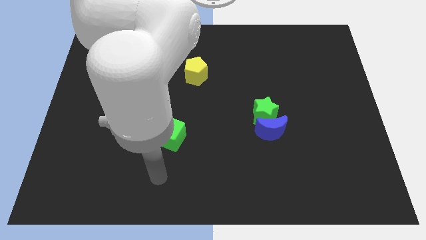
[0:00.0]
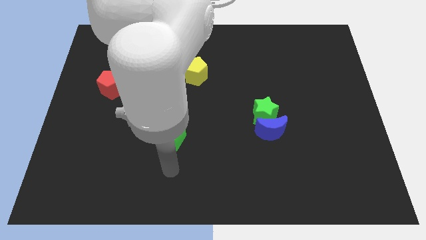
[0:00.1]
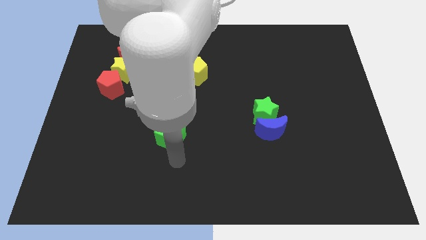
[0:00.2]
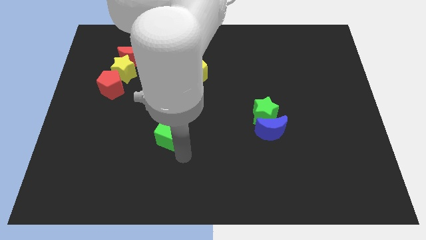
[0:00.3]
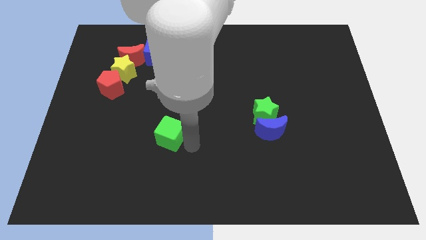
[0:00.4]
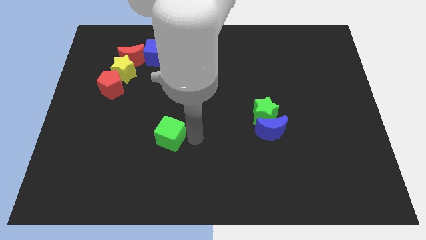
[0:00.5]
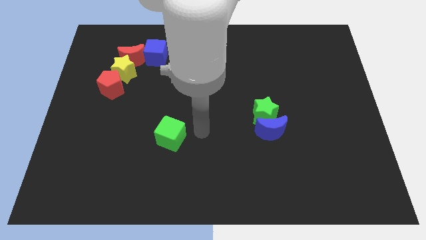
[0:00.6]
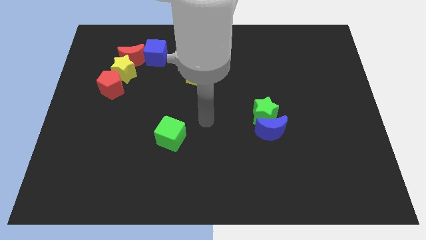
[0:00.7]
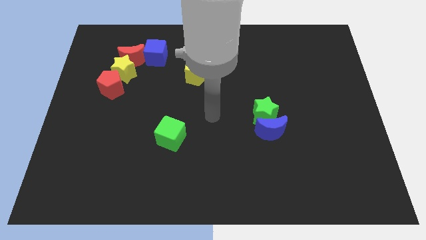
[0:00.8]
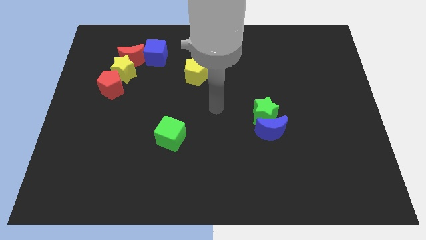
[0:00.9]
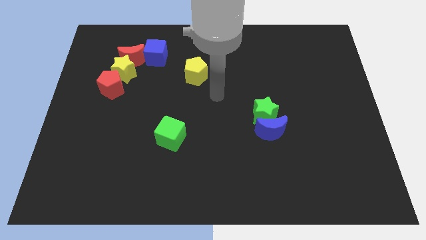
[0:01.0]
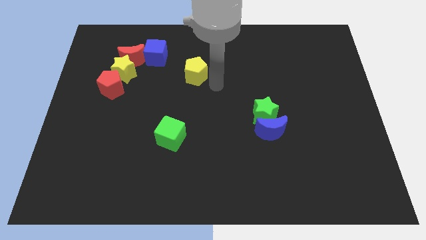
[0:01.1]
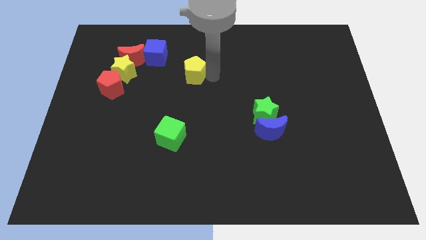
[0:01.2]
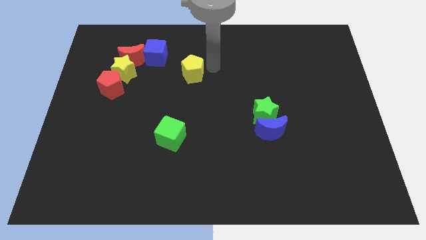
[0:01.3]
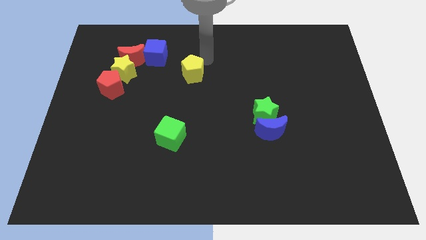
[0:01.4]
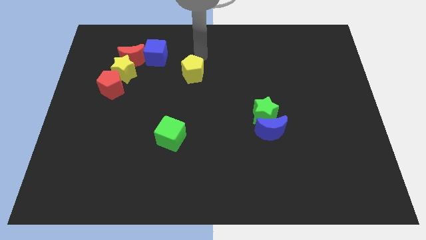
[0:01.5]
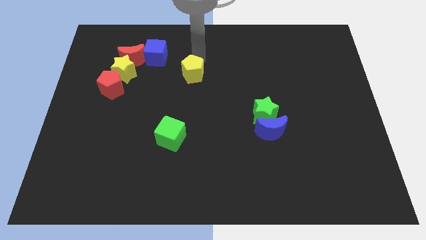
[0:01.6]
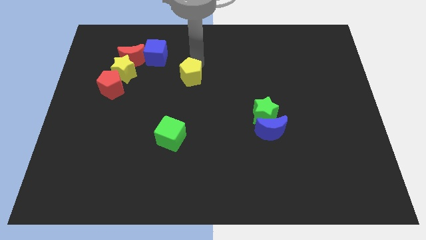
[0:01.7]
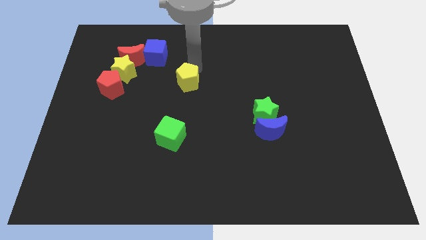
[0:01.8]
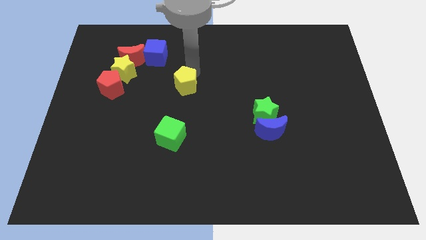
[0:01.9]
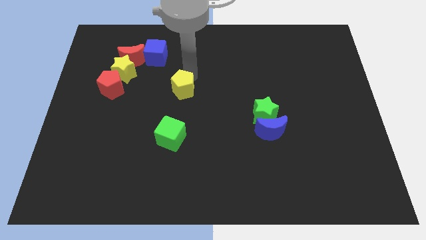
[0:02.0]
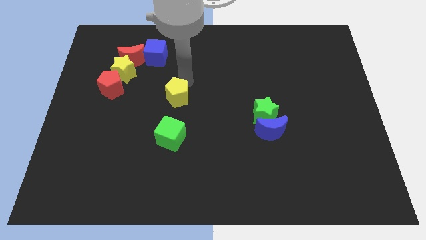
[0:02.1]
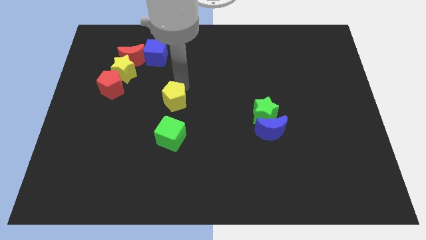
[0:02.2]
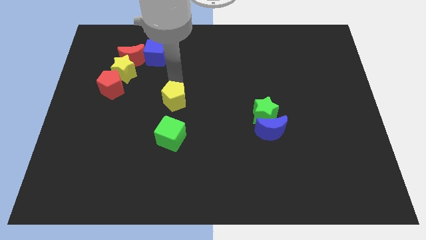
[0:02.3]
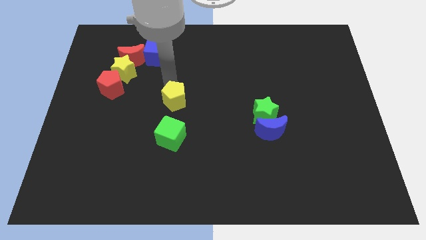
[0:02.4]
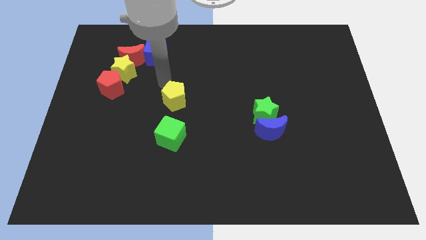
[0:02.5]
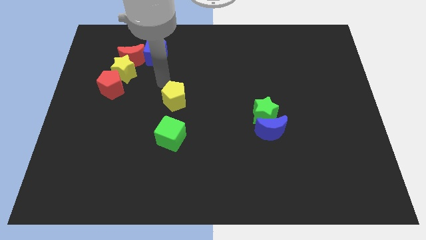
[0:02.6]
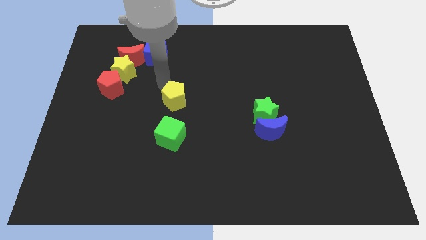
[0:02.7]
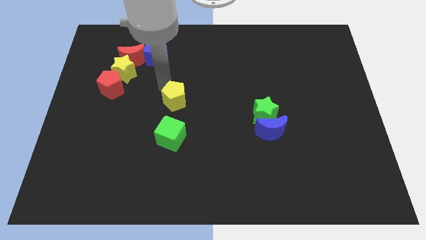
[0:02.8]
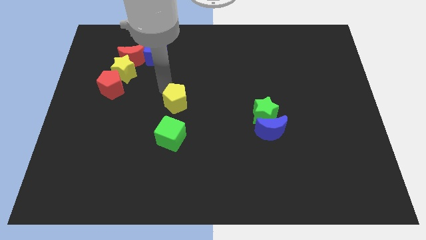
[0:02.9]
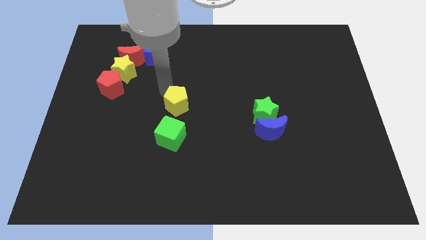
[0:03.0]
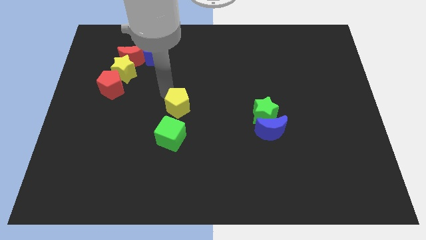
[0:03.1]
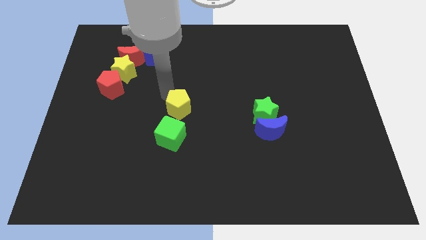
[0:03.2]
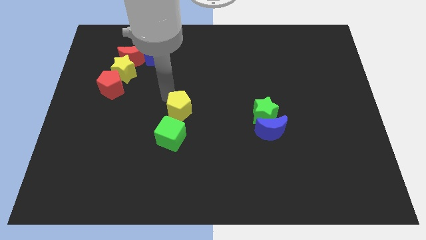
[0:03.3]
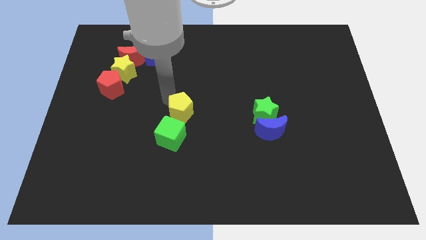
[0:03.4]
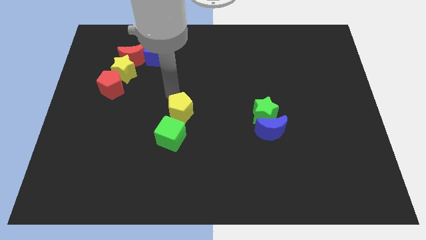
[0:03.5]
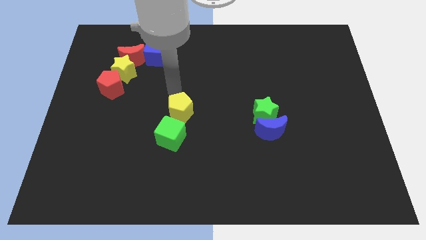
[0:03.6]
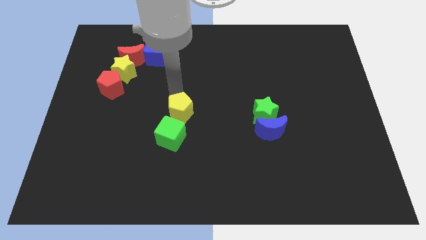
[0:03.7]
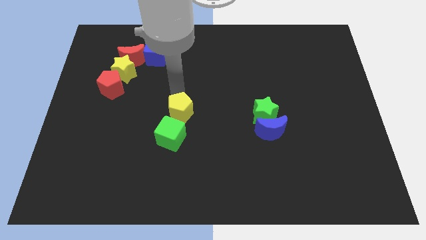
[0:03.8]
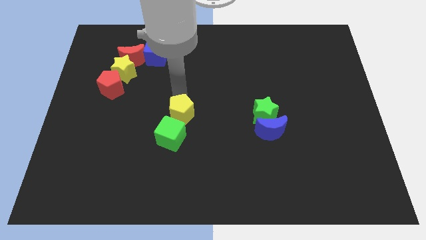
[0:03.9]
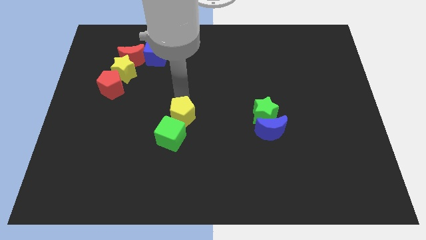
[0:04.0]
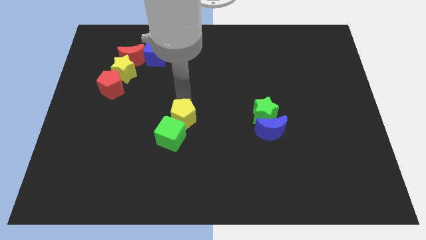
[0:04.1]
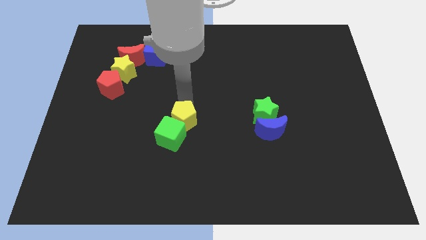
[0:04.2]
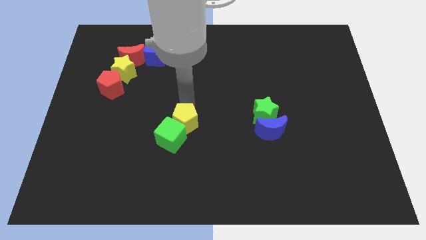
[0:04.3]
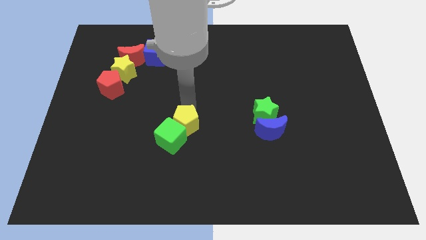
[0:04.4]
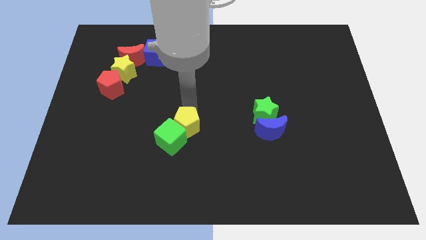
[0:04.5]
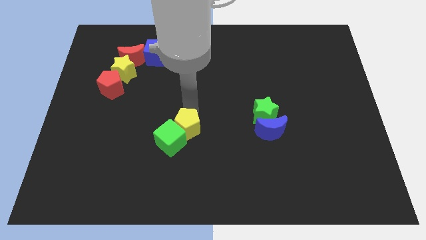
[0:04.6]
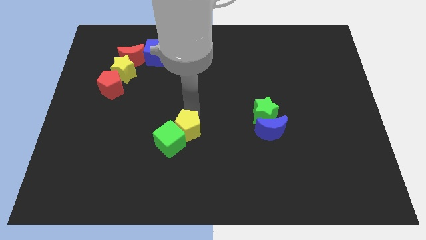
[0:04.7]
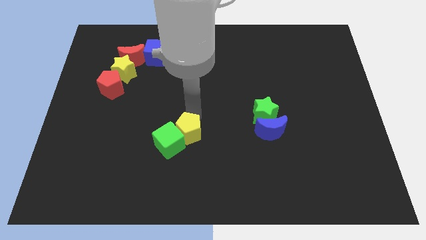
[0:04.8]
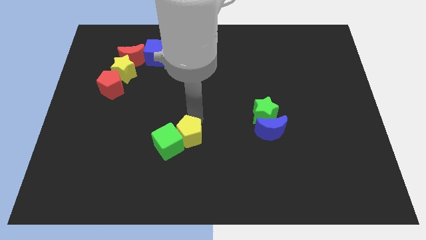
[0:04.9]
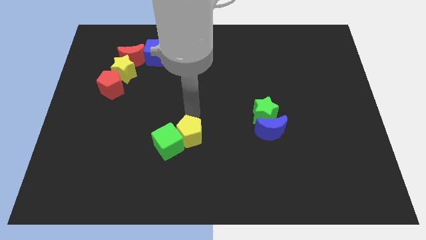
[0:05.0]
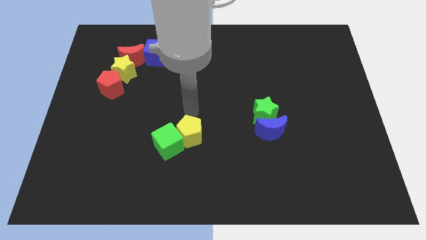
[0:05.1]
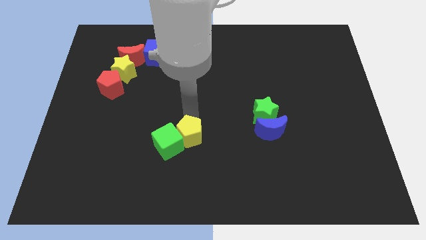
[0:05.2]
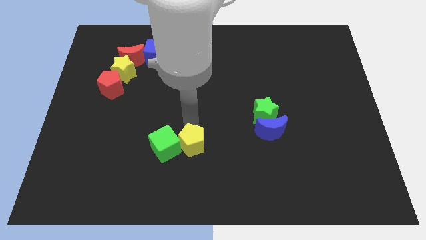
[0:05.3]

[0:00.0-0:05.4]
push the yellow pentagon to the bottom right of the green cube

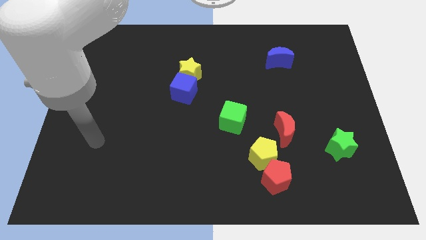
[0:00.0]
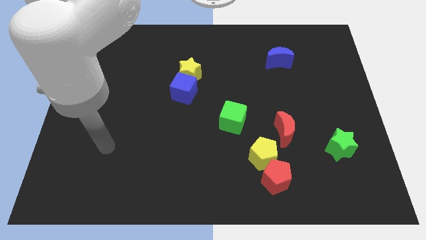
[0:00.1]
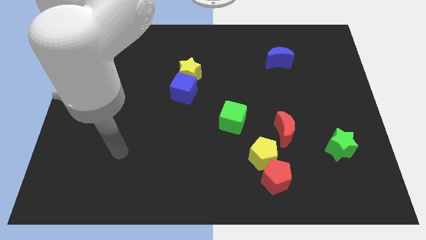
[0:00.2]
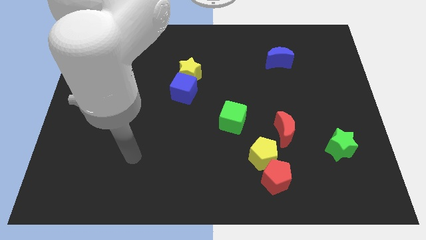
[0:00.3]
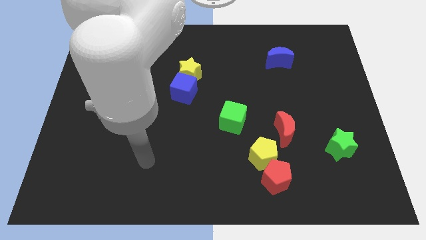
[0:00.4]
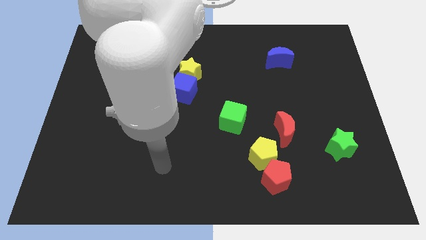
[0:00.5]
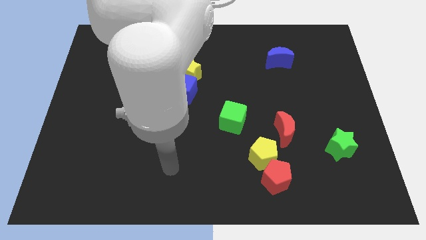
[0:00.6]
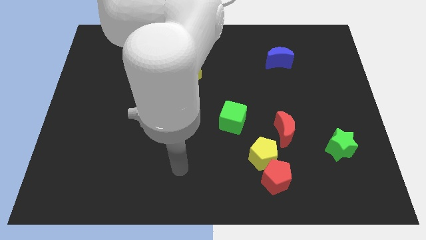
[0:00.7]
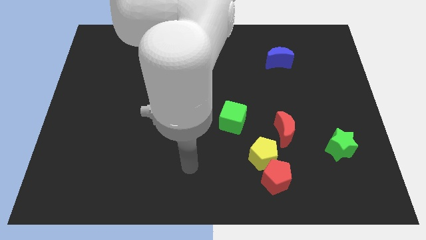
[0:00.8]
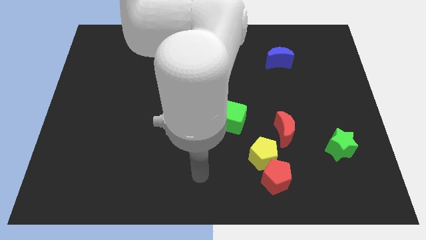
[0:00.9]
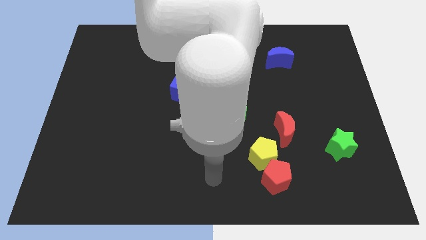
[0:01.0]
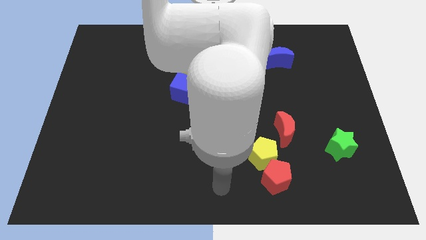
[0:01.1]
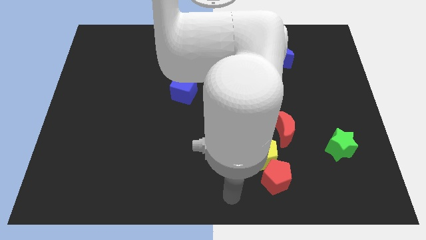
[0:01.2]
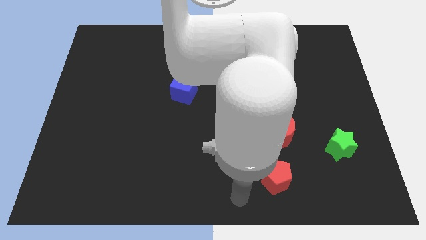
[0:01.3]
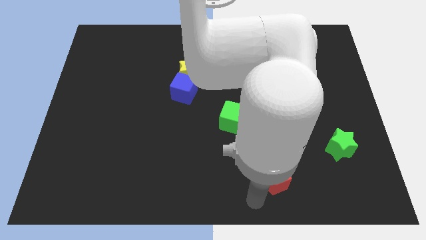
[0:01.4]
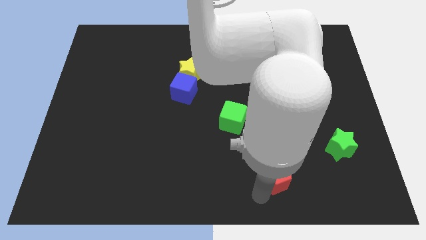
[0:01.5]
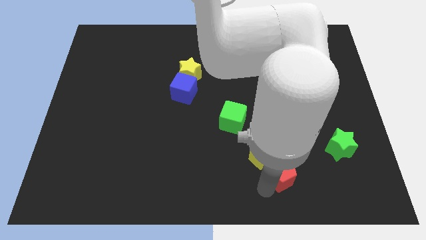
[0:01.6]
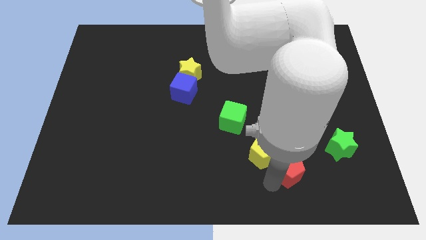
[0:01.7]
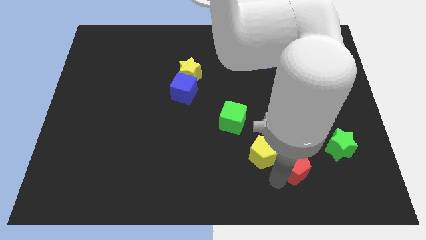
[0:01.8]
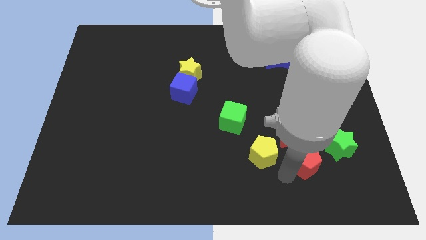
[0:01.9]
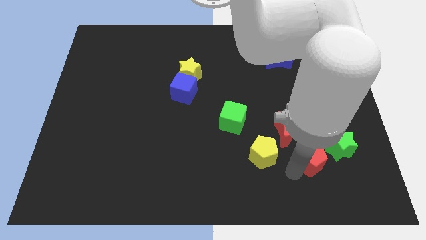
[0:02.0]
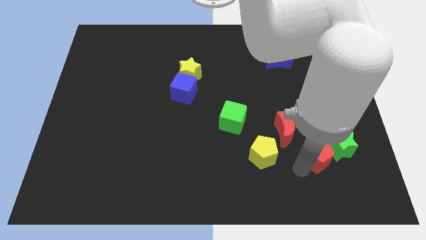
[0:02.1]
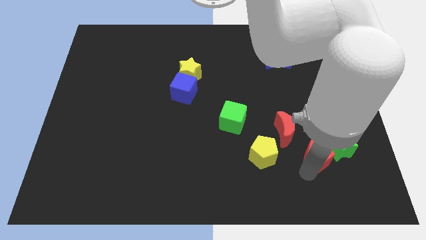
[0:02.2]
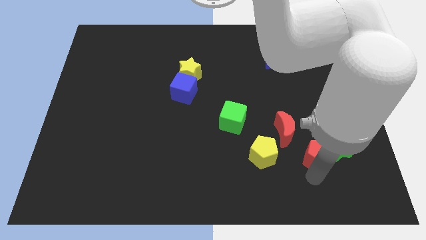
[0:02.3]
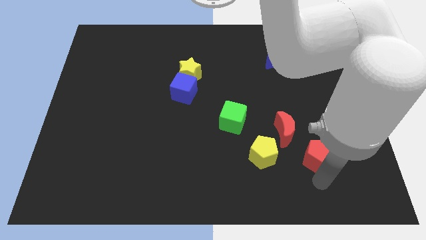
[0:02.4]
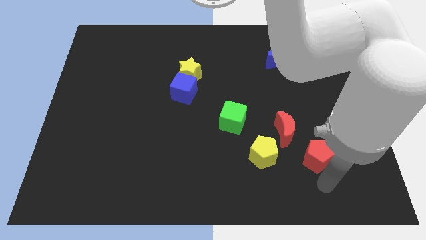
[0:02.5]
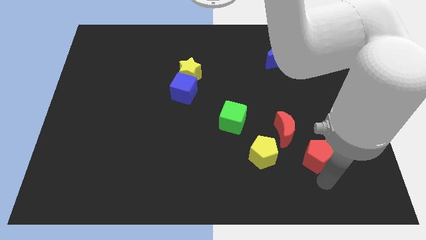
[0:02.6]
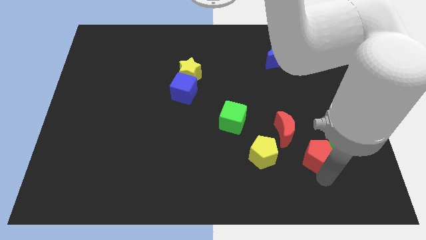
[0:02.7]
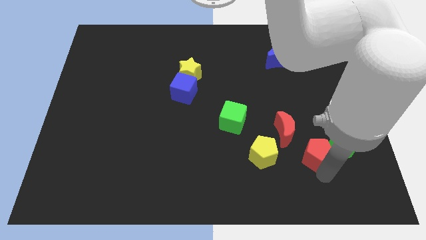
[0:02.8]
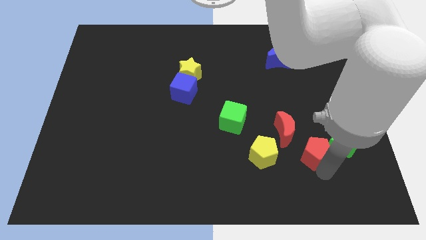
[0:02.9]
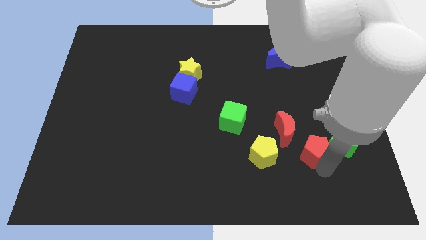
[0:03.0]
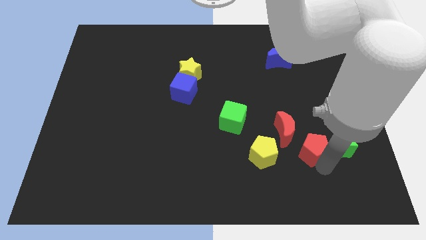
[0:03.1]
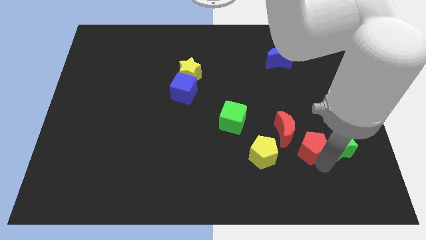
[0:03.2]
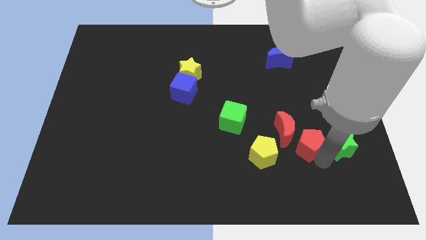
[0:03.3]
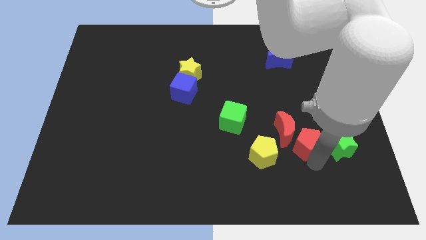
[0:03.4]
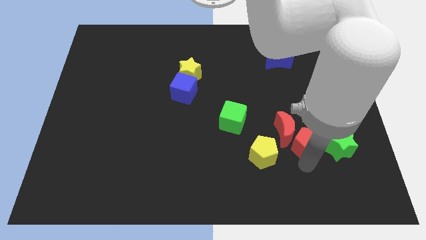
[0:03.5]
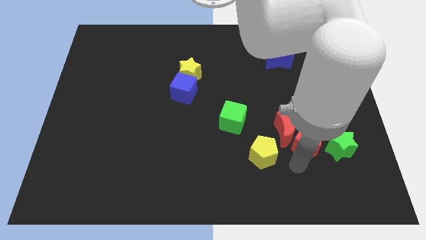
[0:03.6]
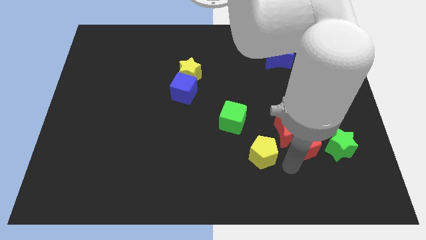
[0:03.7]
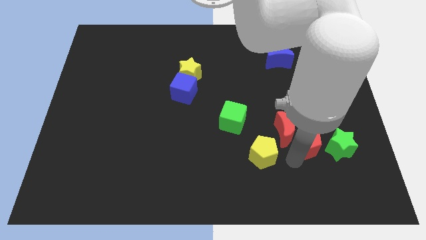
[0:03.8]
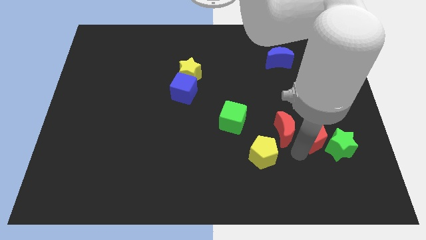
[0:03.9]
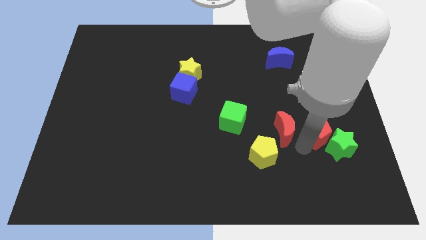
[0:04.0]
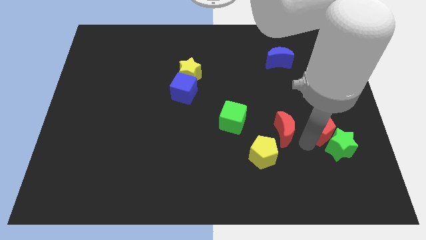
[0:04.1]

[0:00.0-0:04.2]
put the red pentagon to the top of the green star
